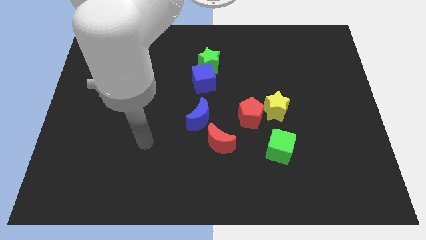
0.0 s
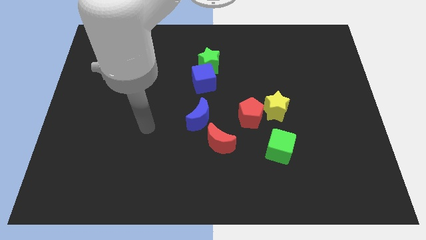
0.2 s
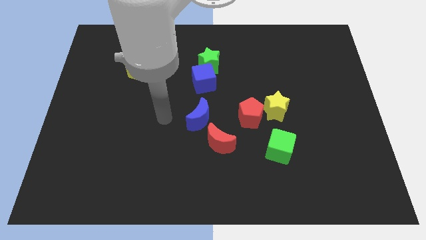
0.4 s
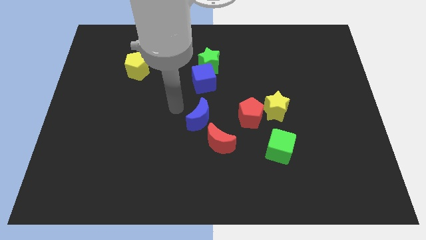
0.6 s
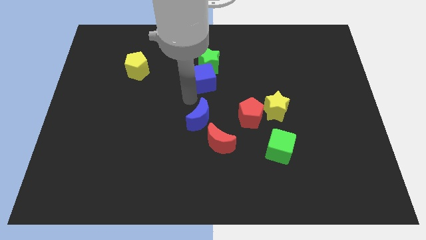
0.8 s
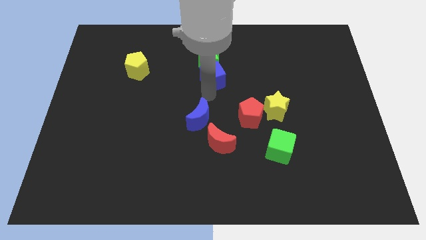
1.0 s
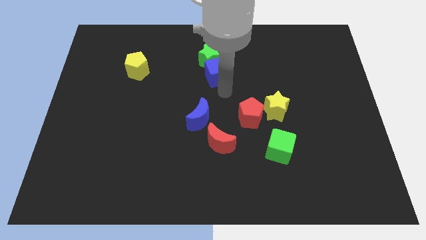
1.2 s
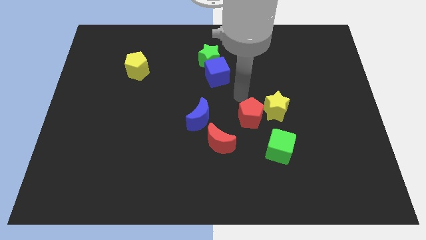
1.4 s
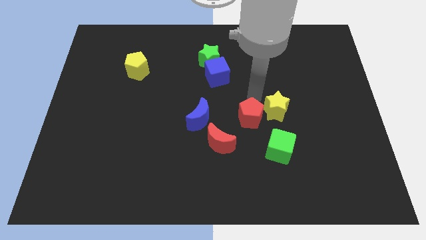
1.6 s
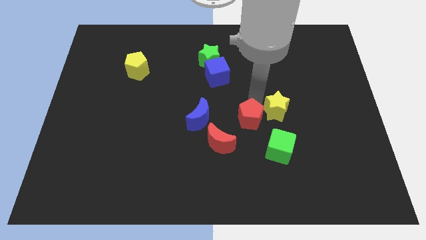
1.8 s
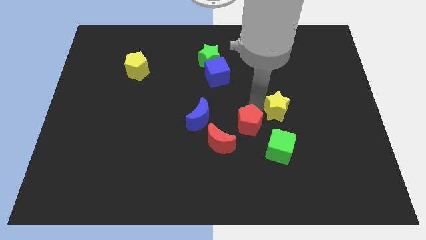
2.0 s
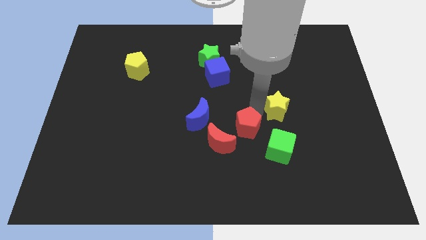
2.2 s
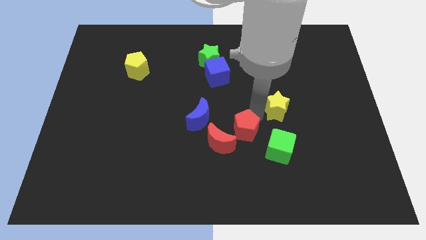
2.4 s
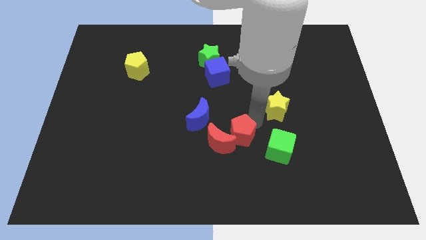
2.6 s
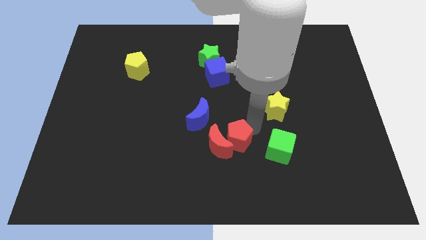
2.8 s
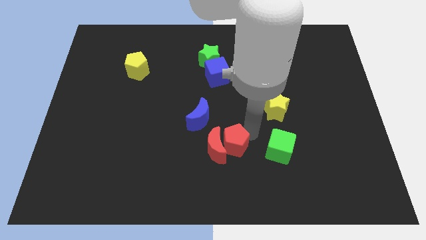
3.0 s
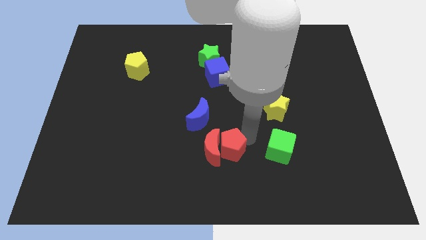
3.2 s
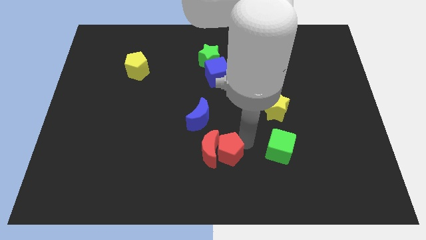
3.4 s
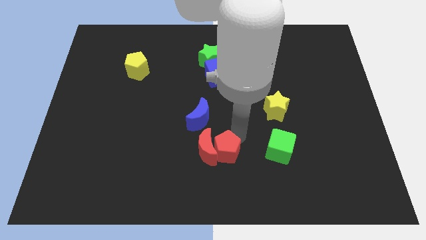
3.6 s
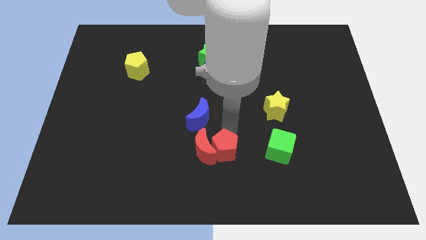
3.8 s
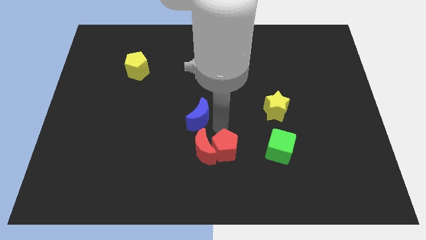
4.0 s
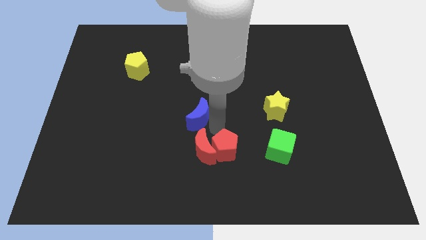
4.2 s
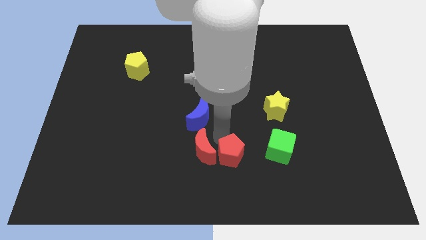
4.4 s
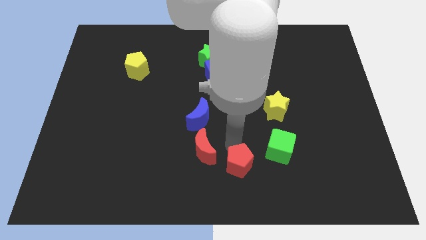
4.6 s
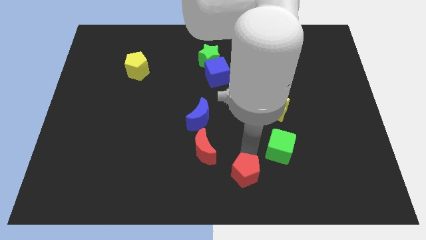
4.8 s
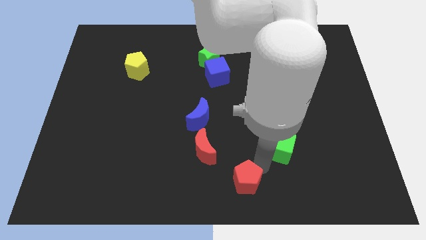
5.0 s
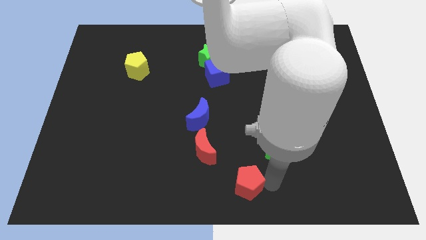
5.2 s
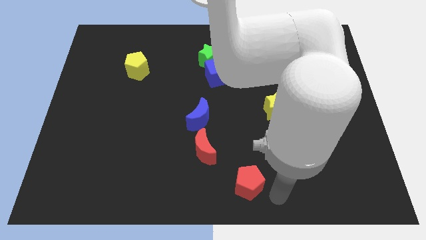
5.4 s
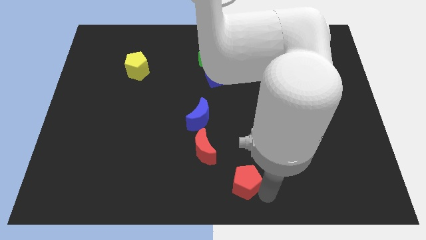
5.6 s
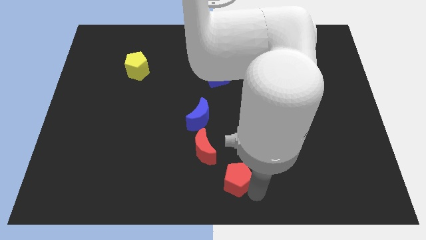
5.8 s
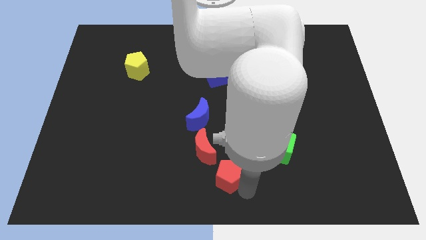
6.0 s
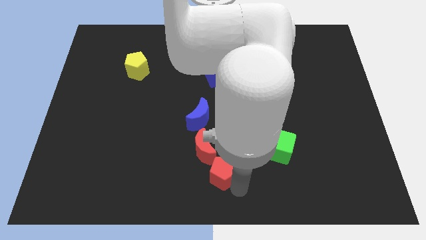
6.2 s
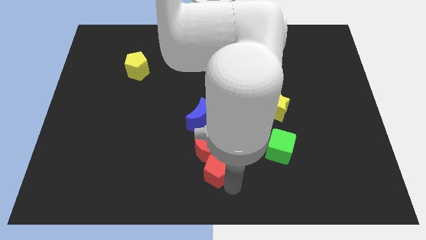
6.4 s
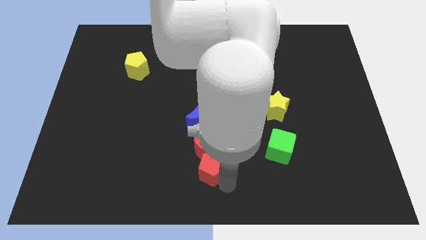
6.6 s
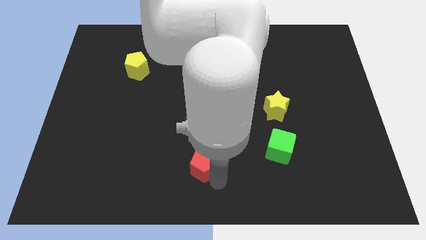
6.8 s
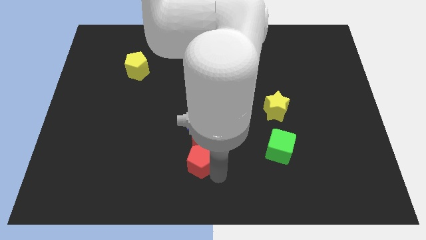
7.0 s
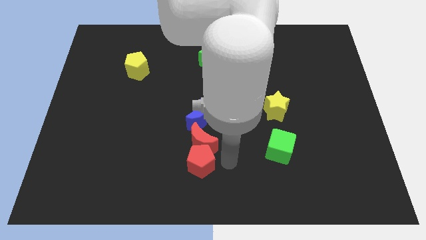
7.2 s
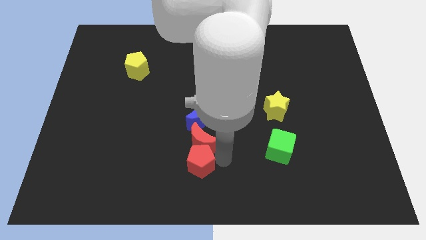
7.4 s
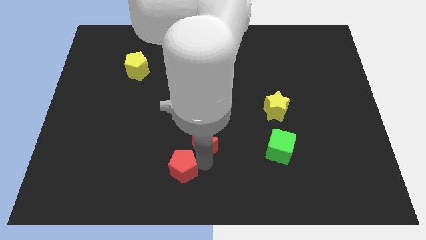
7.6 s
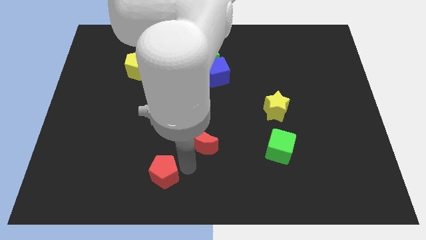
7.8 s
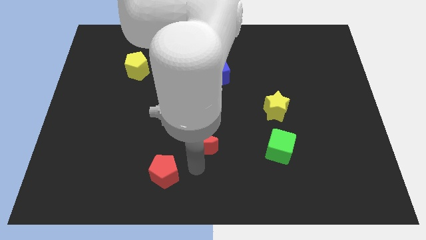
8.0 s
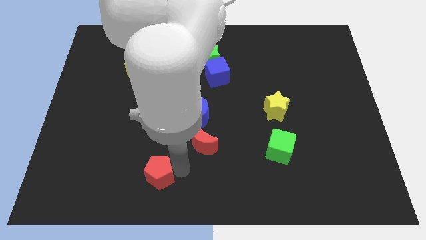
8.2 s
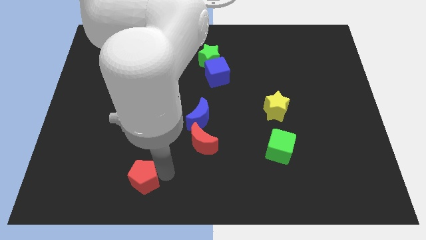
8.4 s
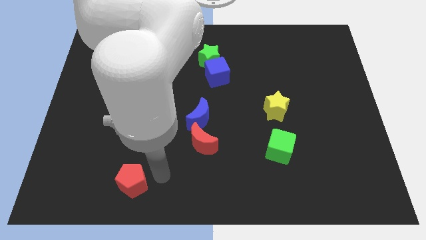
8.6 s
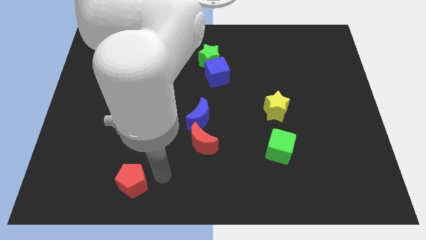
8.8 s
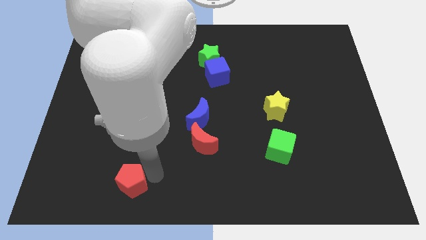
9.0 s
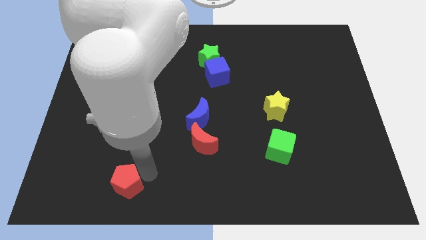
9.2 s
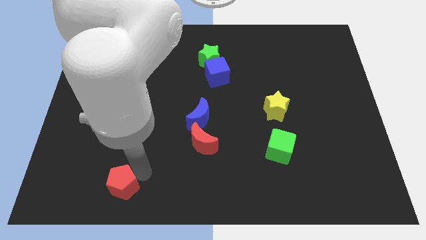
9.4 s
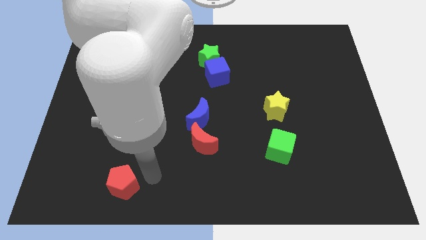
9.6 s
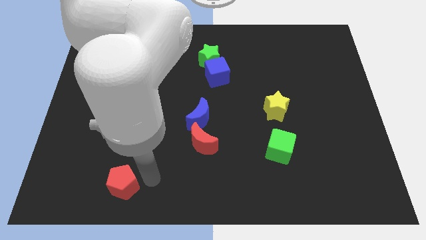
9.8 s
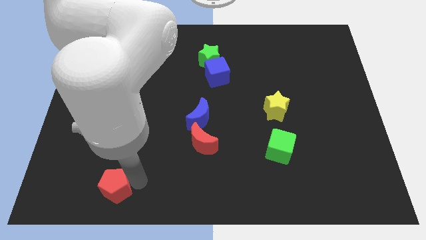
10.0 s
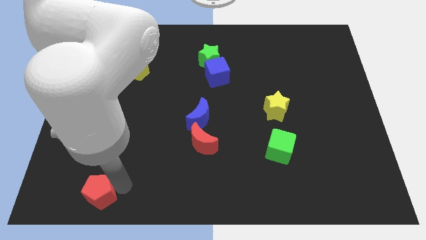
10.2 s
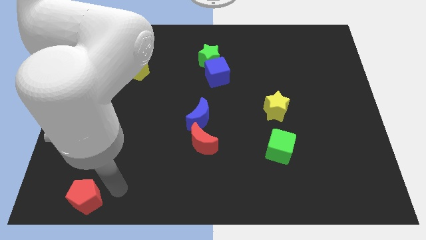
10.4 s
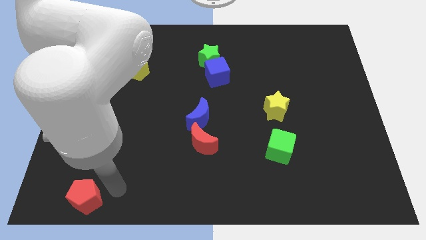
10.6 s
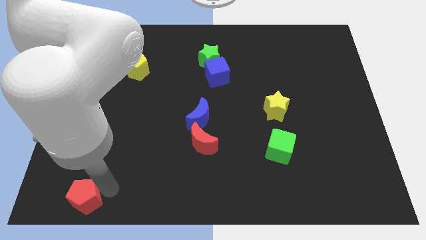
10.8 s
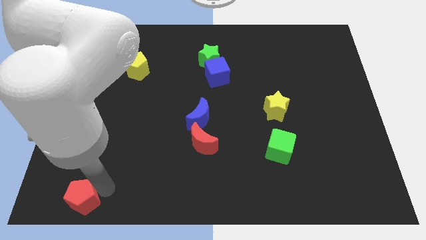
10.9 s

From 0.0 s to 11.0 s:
move the red pentagon to the bottom left corner

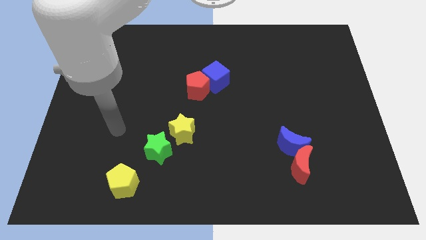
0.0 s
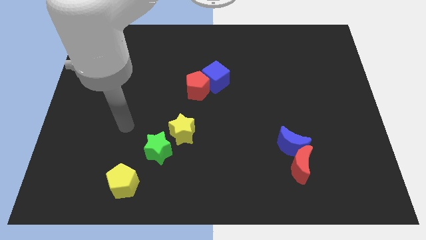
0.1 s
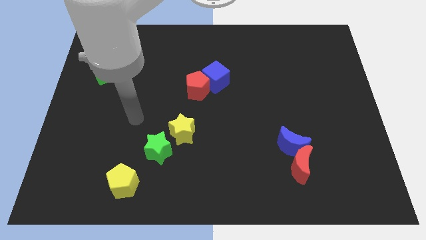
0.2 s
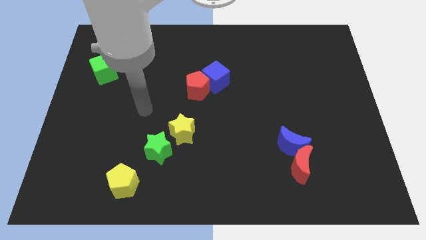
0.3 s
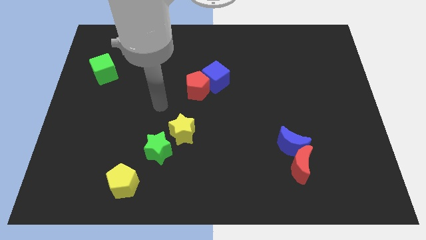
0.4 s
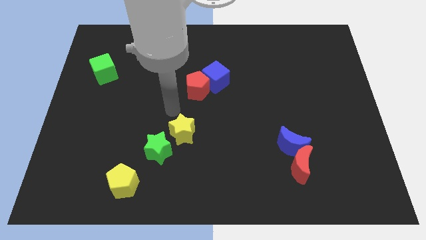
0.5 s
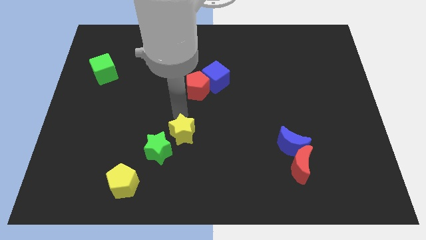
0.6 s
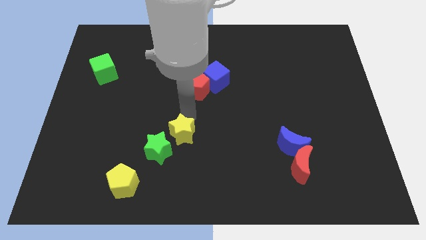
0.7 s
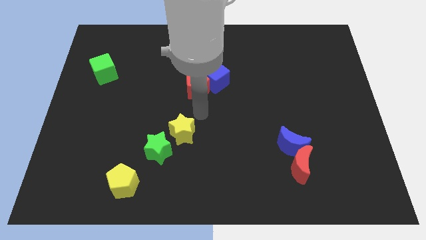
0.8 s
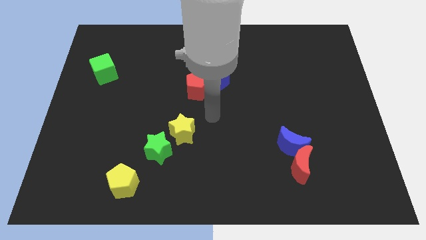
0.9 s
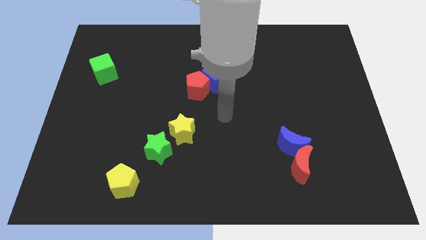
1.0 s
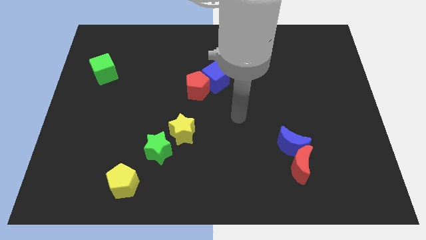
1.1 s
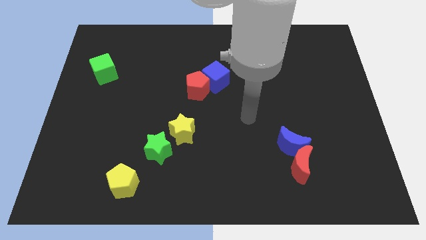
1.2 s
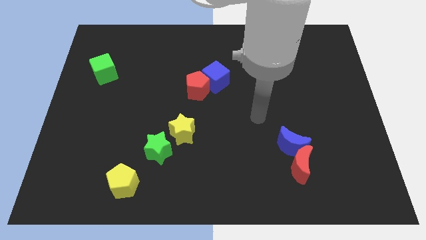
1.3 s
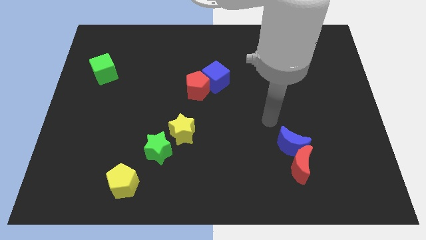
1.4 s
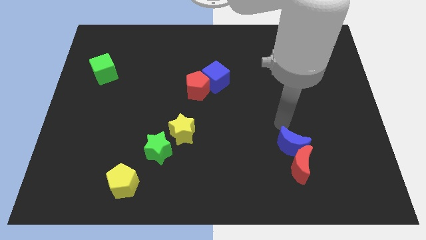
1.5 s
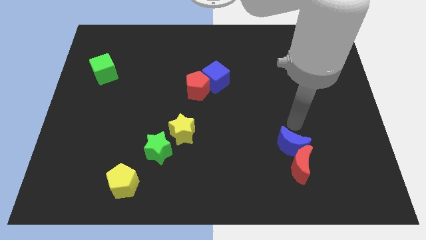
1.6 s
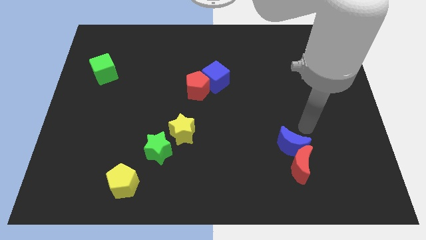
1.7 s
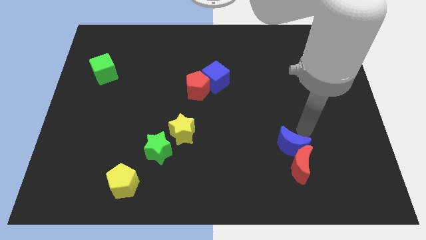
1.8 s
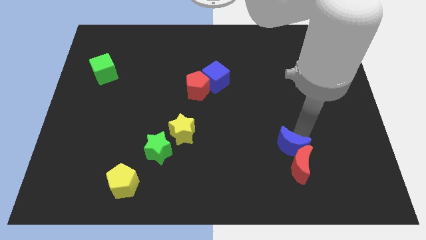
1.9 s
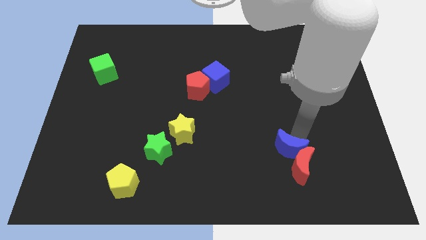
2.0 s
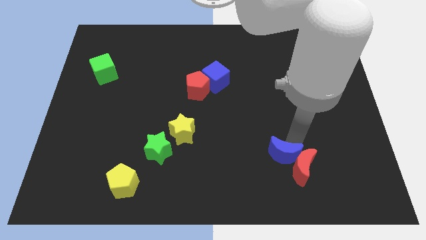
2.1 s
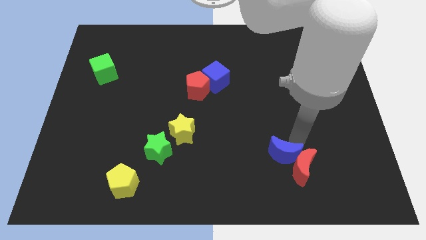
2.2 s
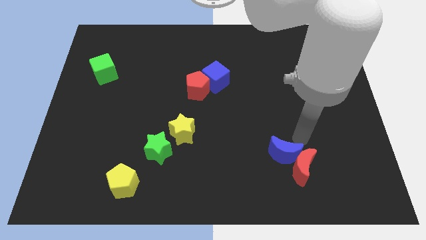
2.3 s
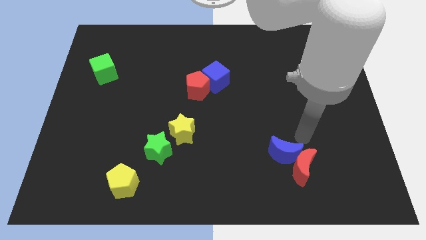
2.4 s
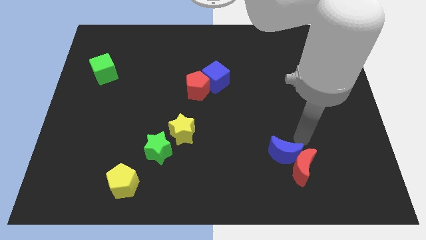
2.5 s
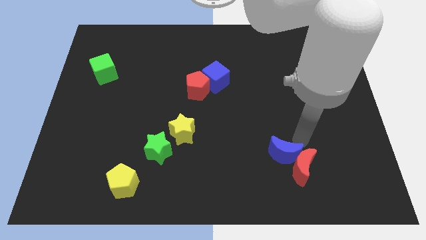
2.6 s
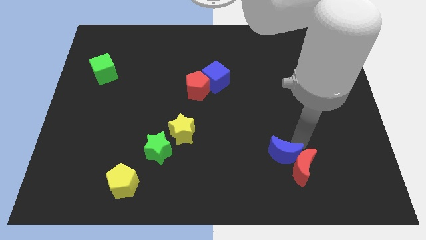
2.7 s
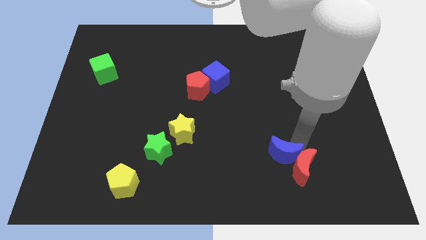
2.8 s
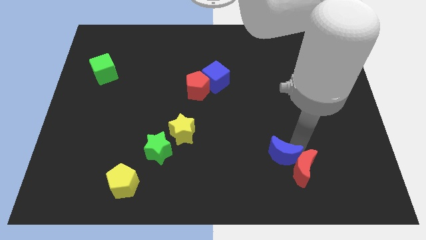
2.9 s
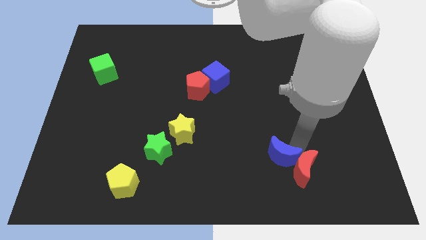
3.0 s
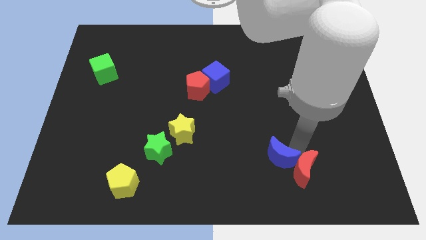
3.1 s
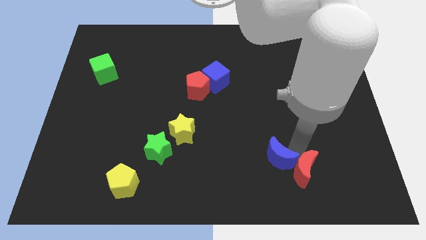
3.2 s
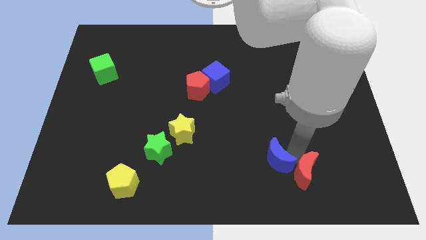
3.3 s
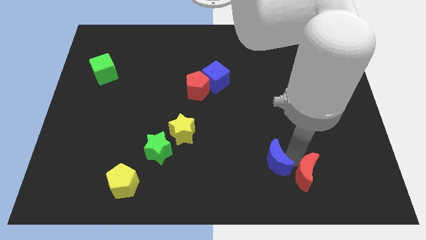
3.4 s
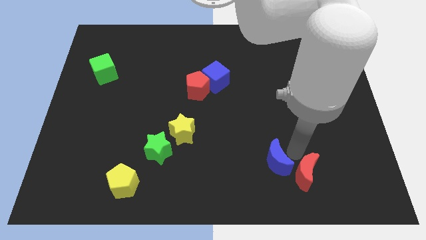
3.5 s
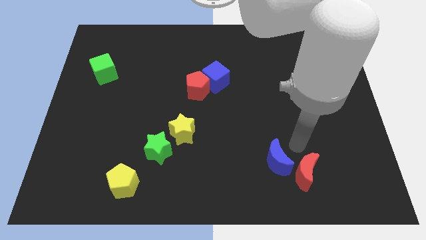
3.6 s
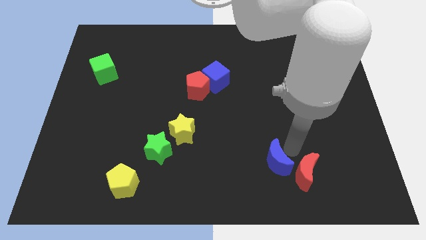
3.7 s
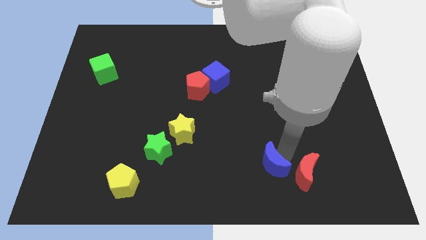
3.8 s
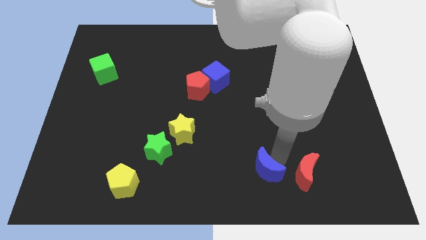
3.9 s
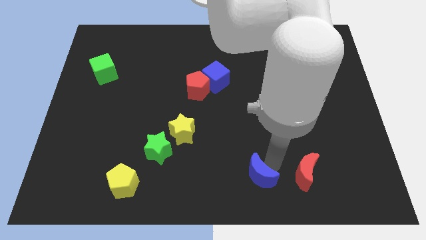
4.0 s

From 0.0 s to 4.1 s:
move the blue moon to the bottom
